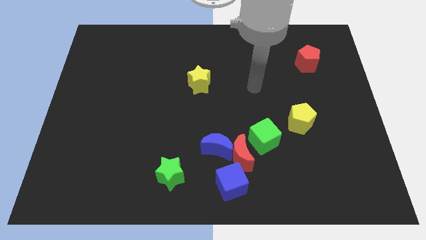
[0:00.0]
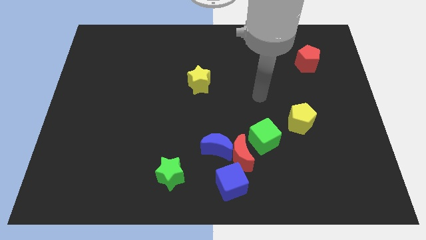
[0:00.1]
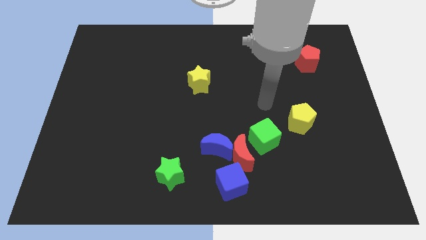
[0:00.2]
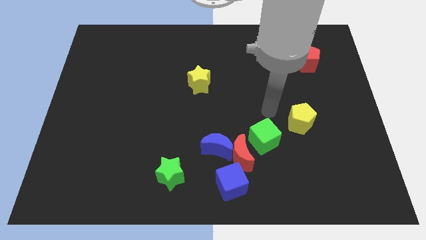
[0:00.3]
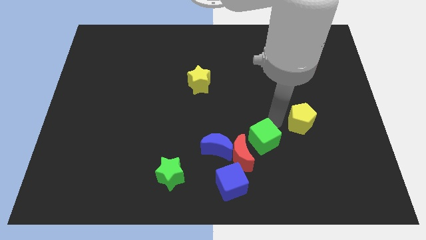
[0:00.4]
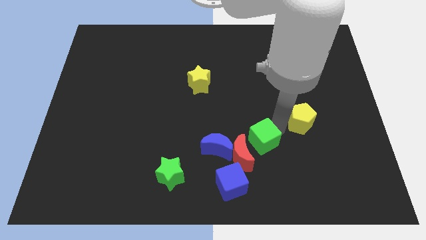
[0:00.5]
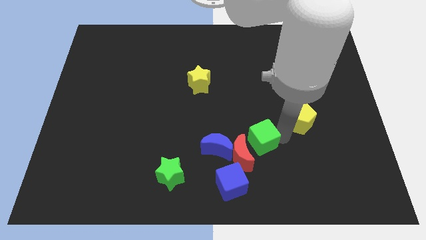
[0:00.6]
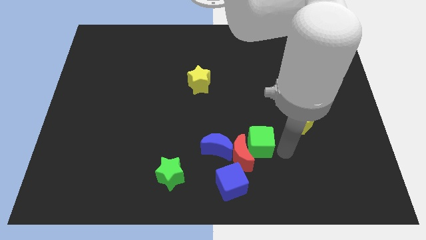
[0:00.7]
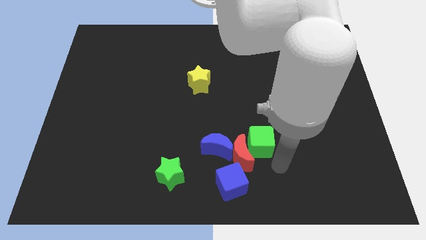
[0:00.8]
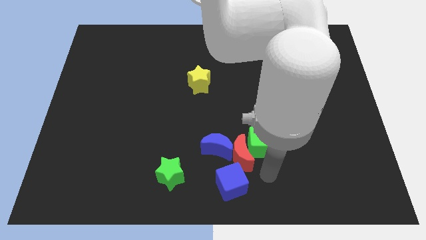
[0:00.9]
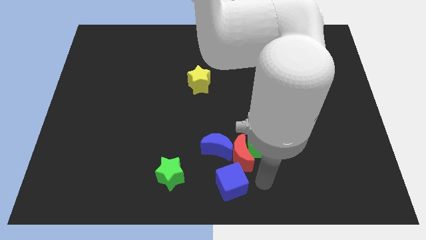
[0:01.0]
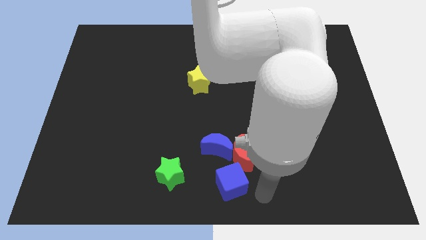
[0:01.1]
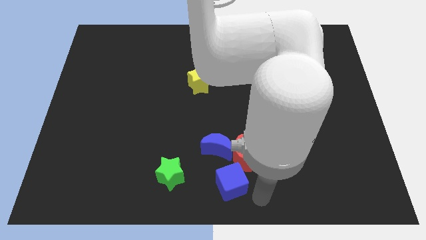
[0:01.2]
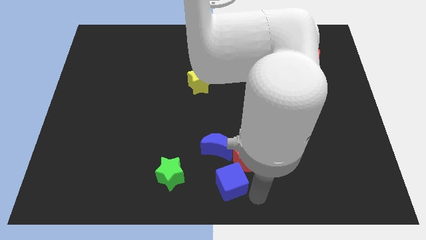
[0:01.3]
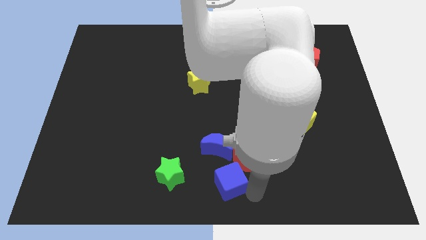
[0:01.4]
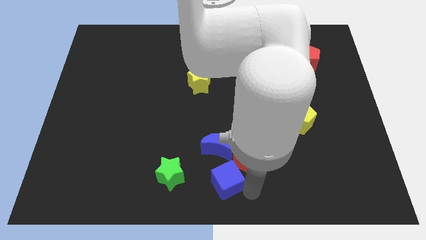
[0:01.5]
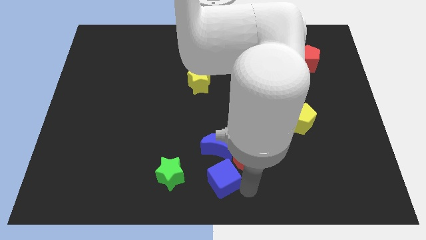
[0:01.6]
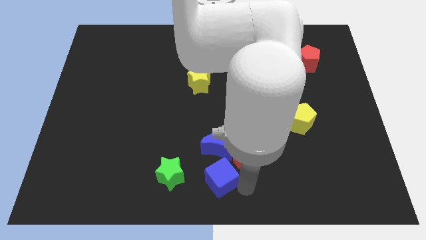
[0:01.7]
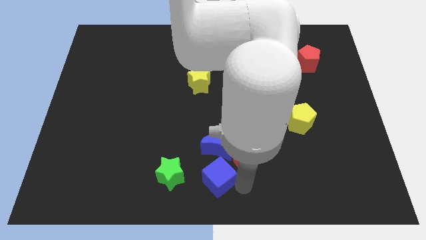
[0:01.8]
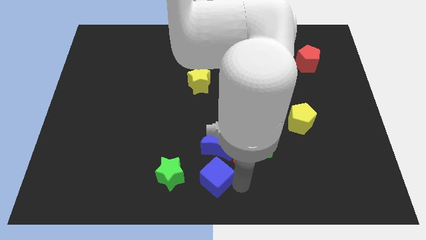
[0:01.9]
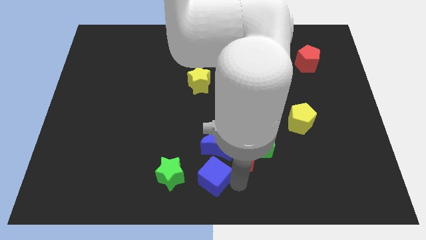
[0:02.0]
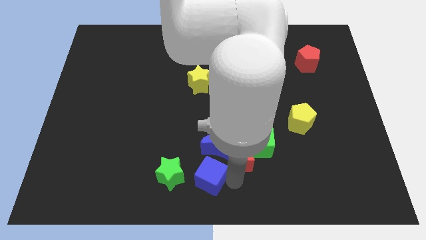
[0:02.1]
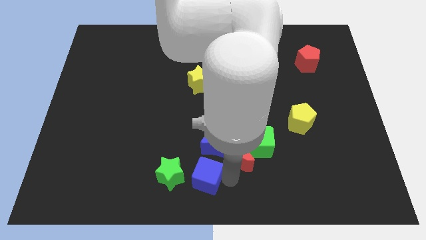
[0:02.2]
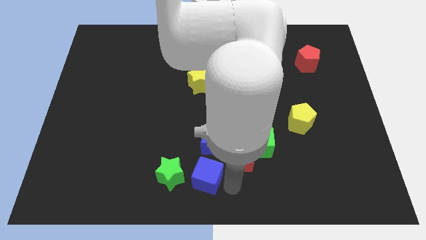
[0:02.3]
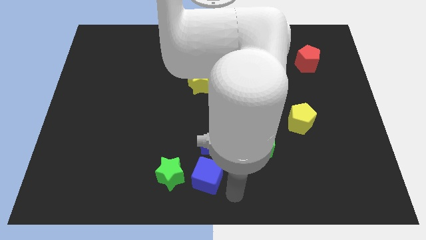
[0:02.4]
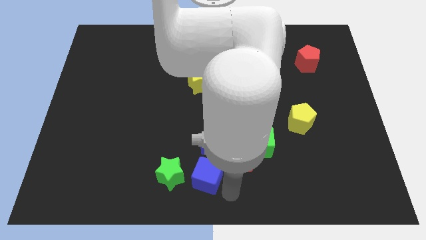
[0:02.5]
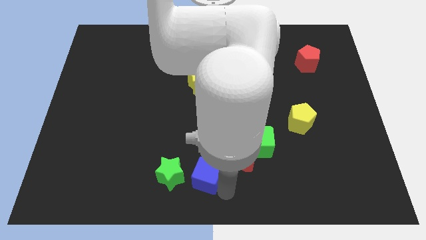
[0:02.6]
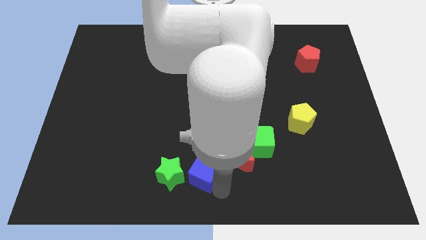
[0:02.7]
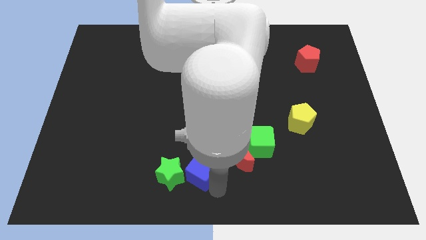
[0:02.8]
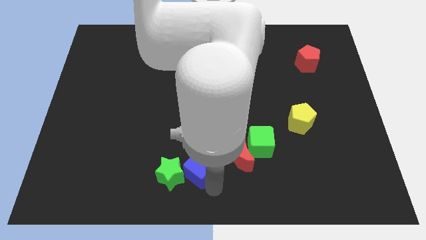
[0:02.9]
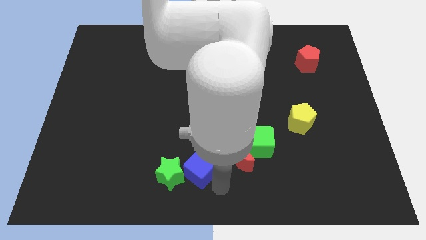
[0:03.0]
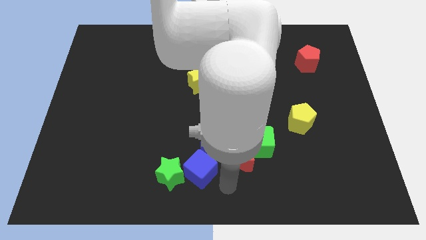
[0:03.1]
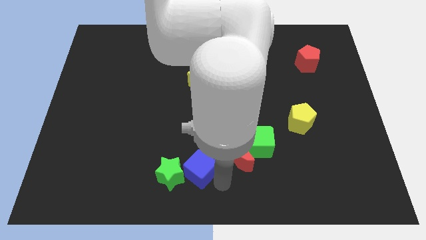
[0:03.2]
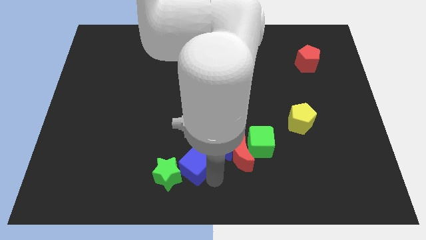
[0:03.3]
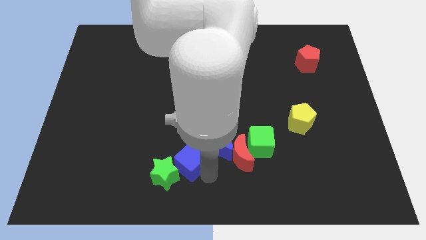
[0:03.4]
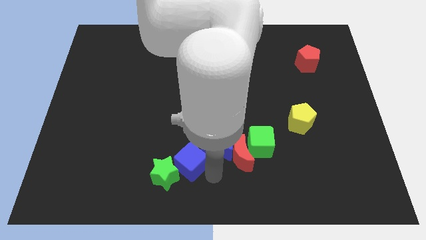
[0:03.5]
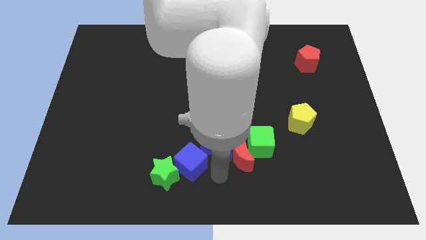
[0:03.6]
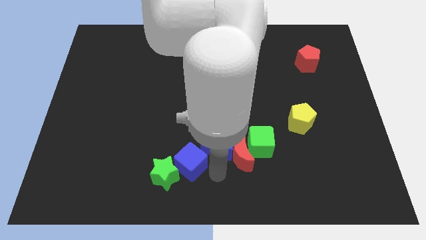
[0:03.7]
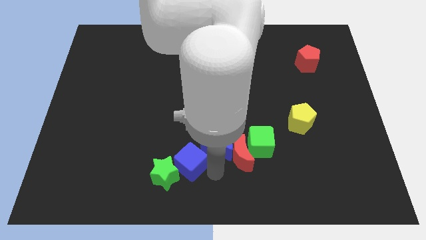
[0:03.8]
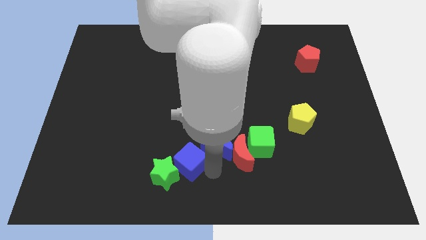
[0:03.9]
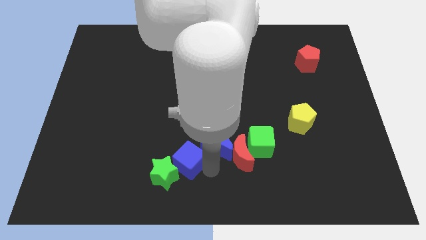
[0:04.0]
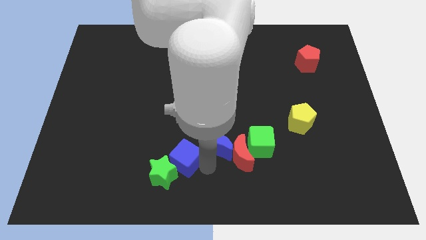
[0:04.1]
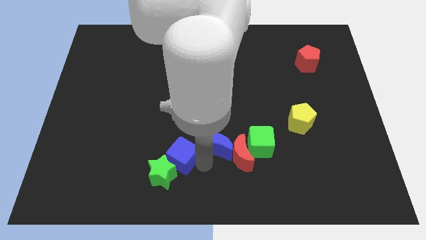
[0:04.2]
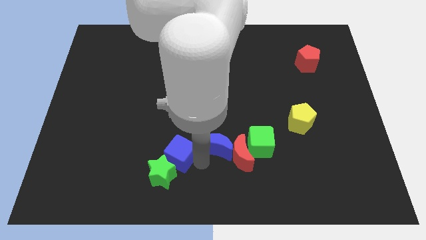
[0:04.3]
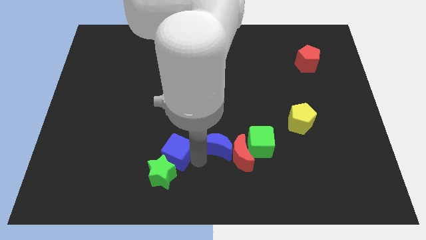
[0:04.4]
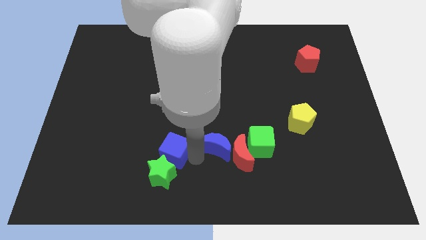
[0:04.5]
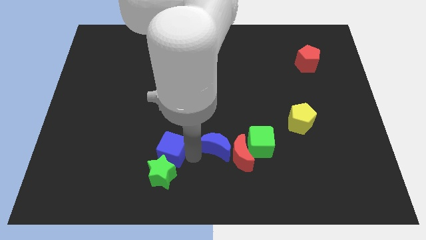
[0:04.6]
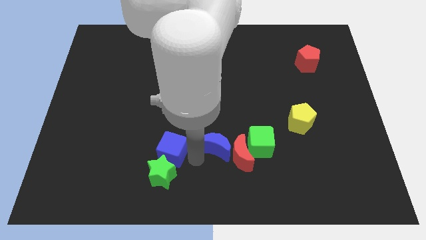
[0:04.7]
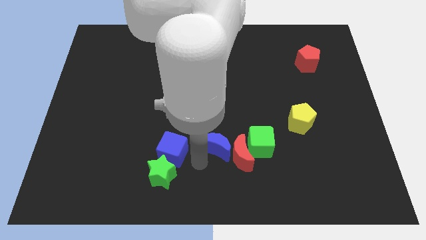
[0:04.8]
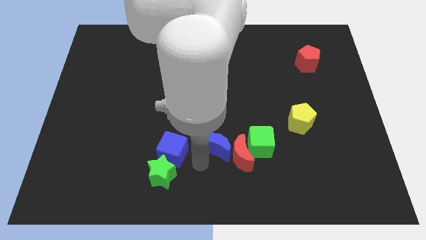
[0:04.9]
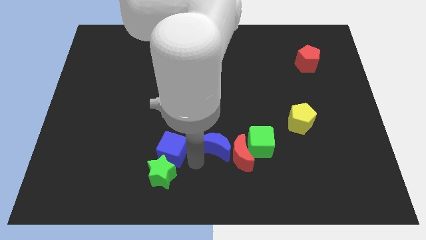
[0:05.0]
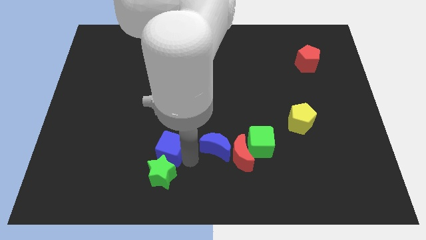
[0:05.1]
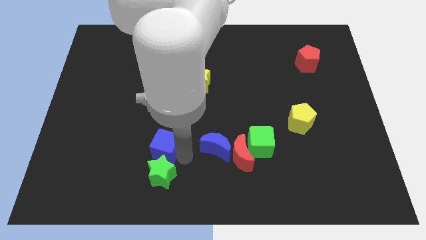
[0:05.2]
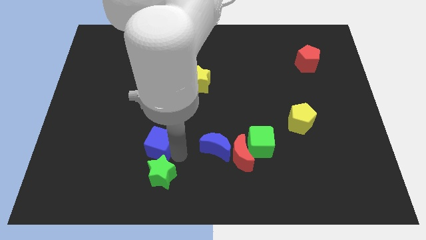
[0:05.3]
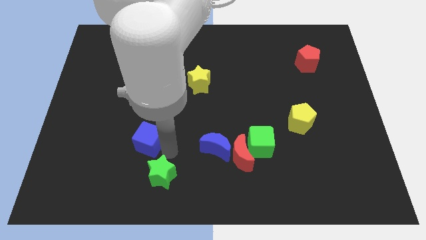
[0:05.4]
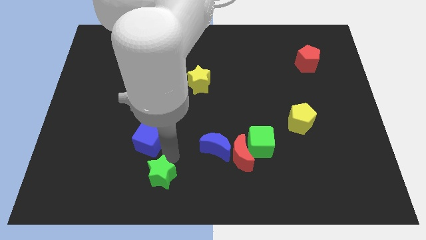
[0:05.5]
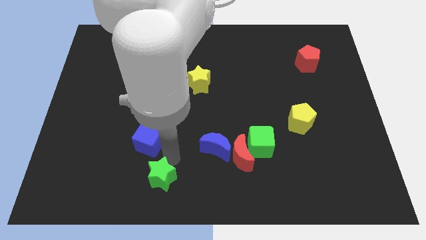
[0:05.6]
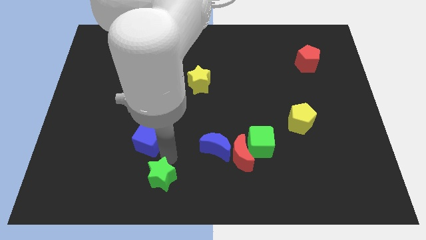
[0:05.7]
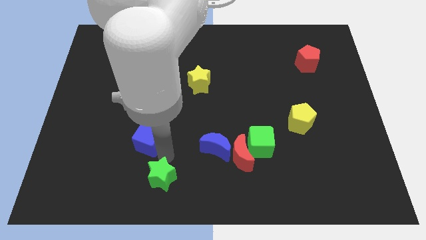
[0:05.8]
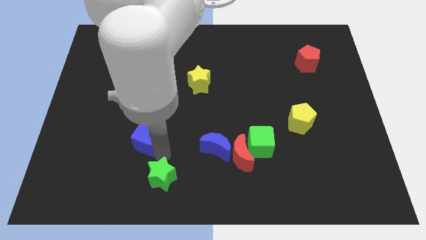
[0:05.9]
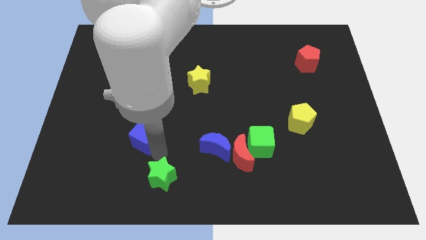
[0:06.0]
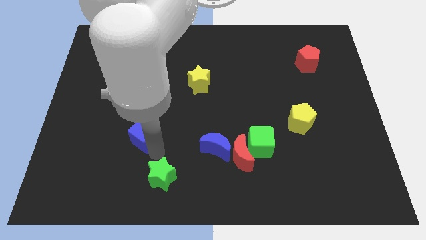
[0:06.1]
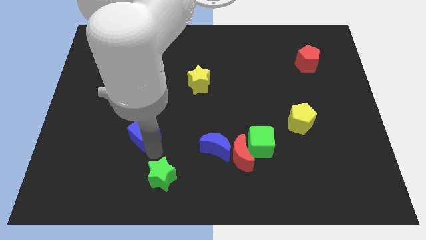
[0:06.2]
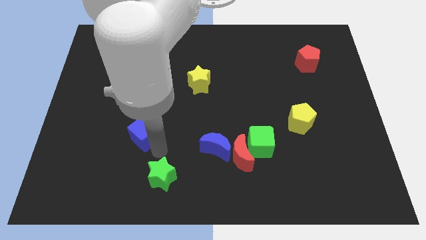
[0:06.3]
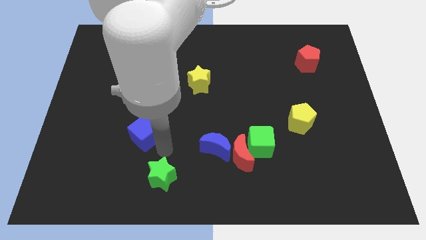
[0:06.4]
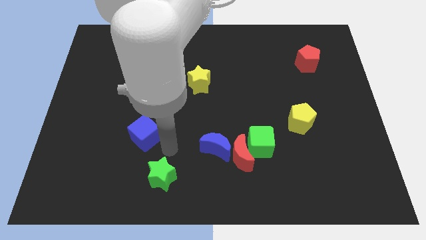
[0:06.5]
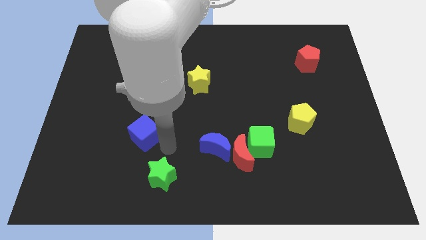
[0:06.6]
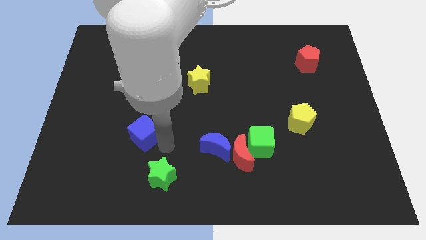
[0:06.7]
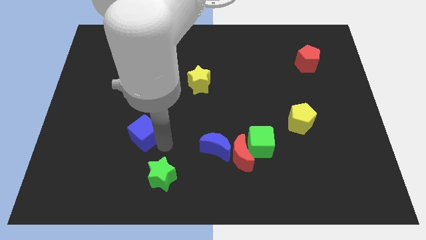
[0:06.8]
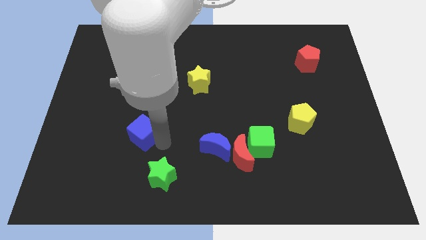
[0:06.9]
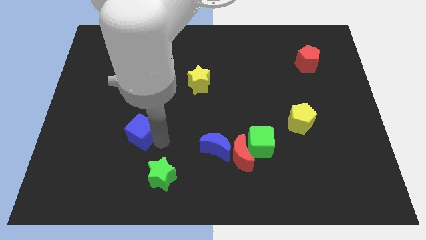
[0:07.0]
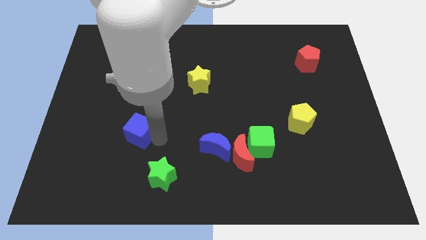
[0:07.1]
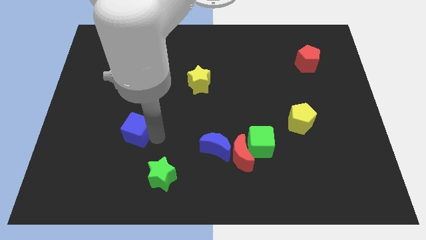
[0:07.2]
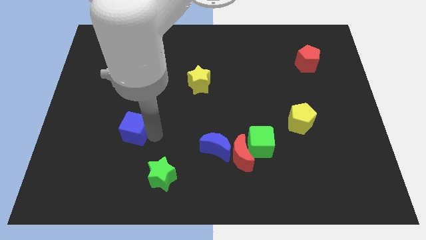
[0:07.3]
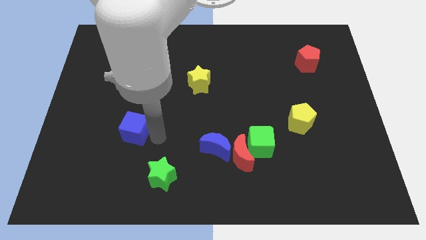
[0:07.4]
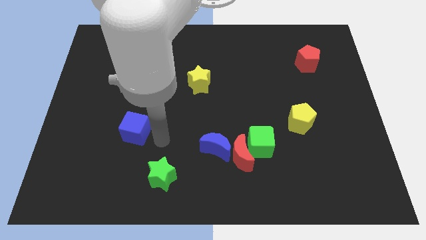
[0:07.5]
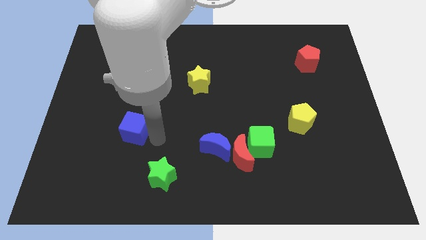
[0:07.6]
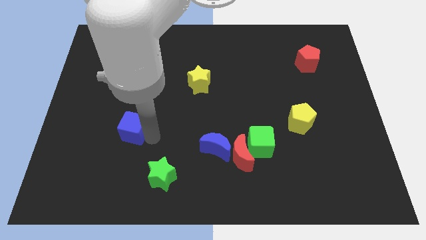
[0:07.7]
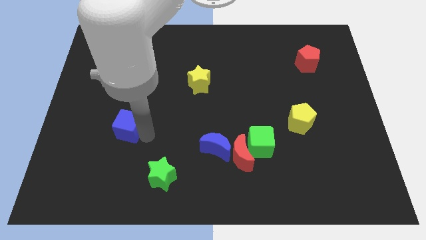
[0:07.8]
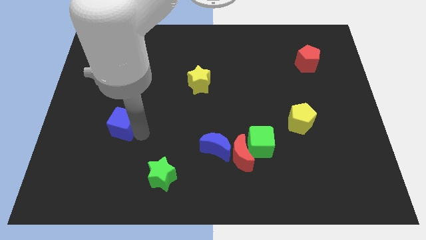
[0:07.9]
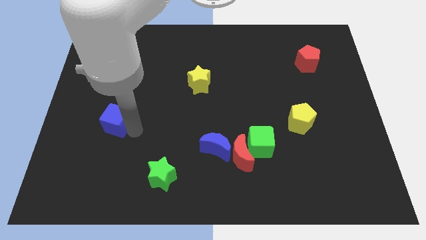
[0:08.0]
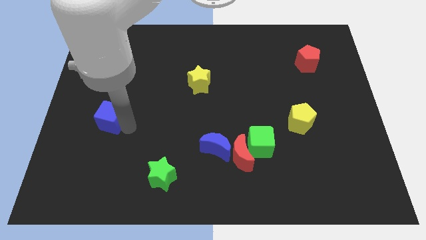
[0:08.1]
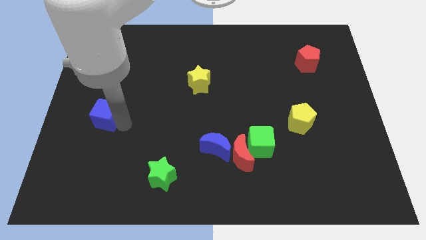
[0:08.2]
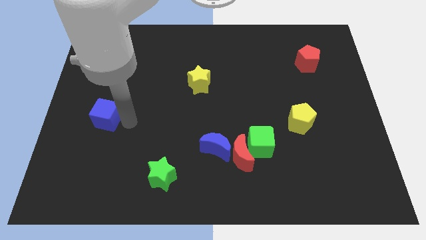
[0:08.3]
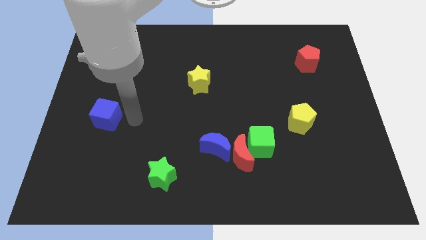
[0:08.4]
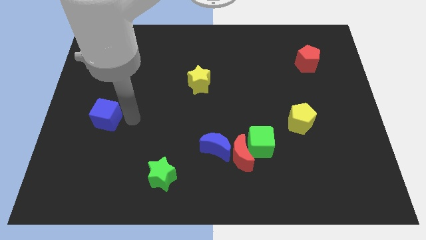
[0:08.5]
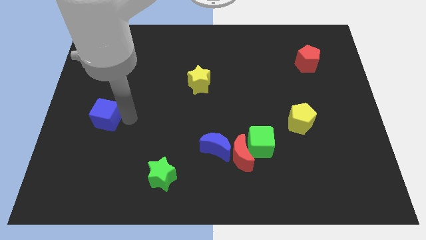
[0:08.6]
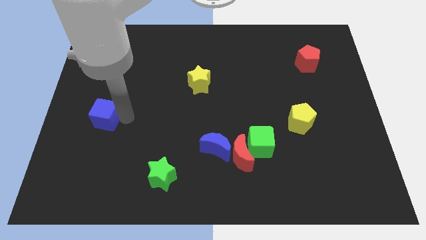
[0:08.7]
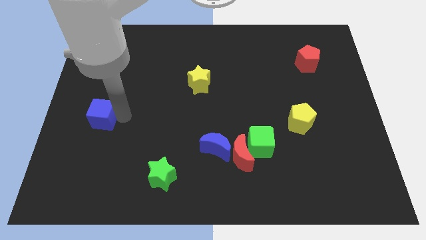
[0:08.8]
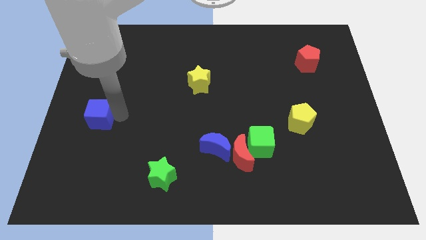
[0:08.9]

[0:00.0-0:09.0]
put the blue cube to the left side of the board
